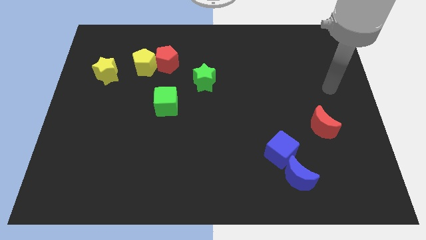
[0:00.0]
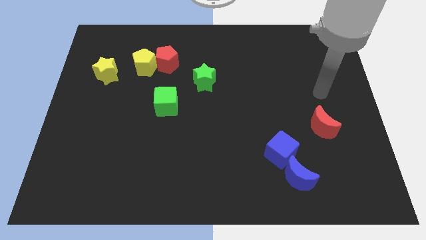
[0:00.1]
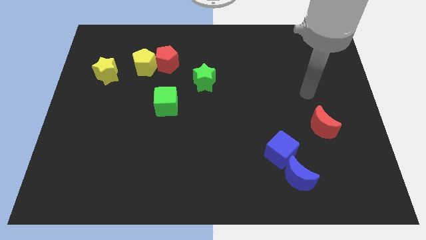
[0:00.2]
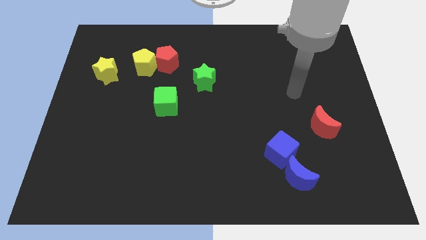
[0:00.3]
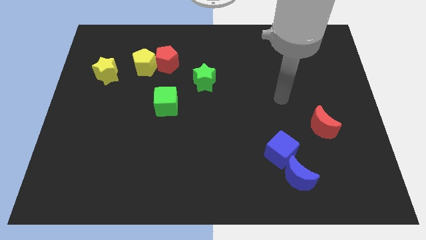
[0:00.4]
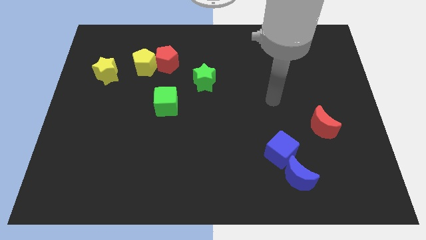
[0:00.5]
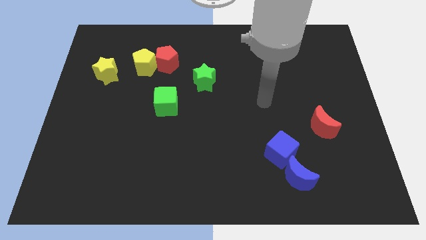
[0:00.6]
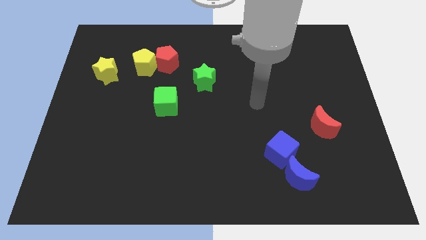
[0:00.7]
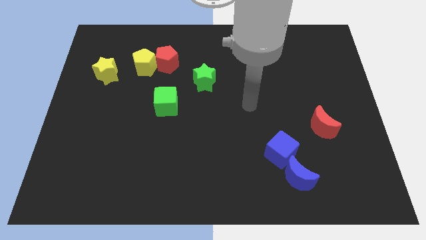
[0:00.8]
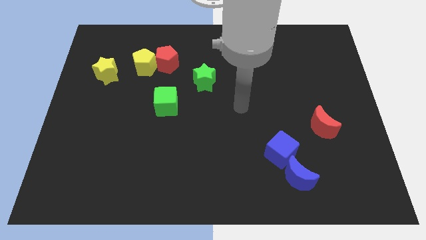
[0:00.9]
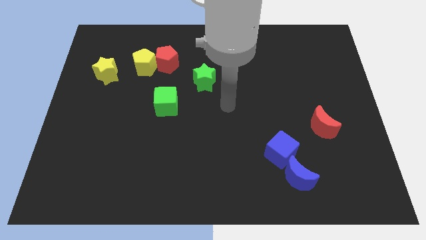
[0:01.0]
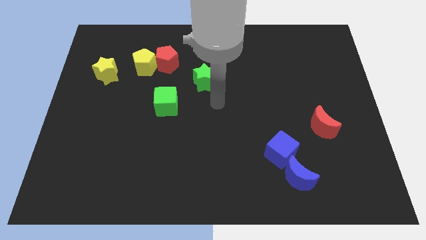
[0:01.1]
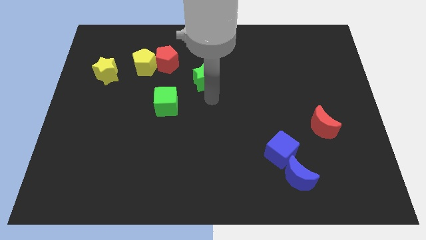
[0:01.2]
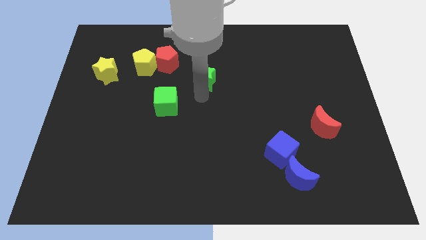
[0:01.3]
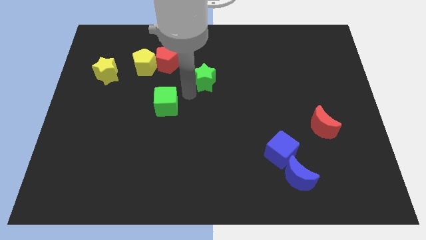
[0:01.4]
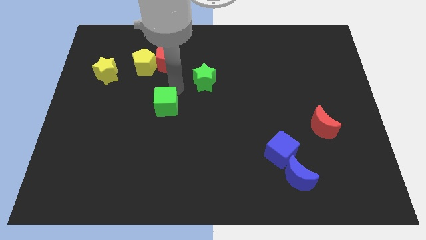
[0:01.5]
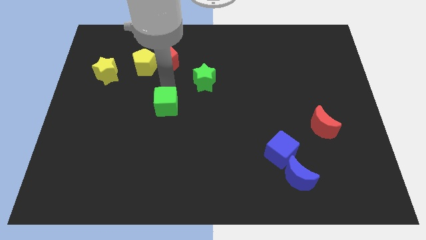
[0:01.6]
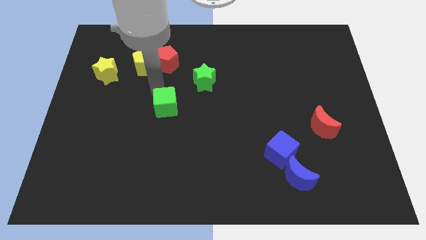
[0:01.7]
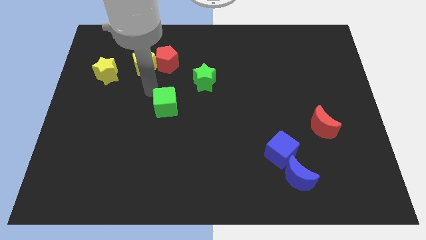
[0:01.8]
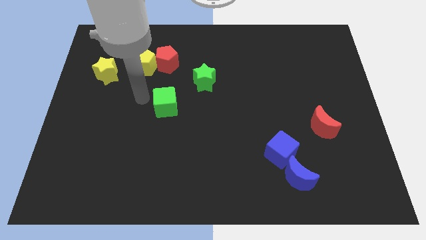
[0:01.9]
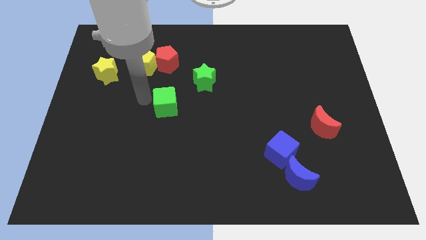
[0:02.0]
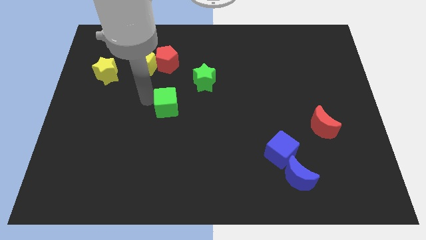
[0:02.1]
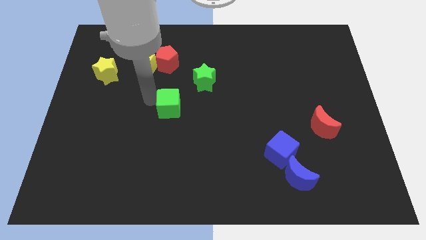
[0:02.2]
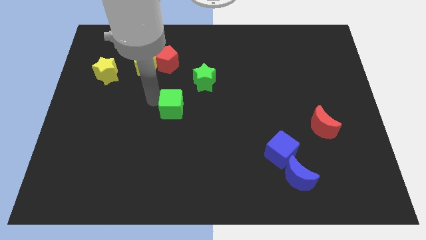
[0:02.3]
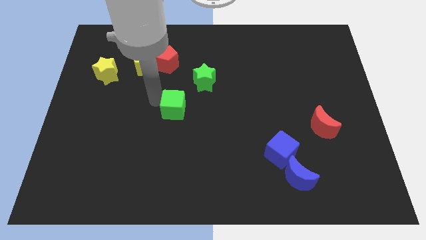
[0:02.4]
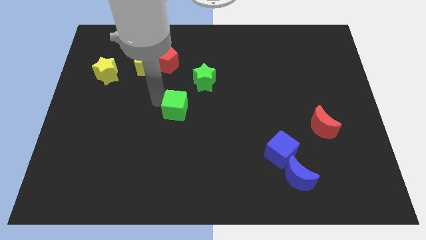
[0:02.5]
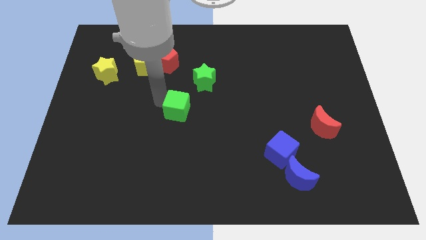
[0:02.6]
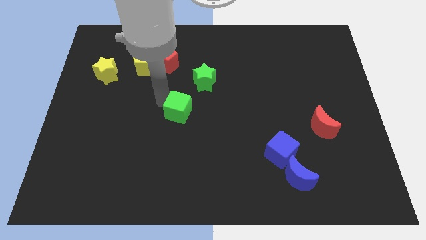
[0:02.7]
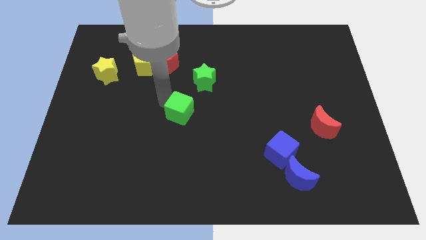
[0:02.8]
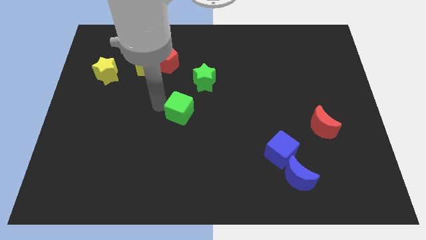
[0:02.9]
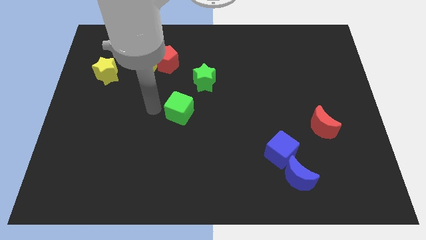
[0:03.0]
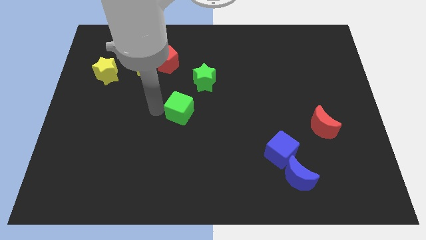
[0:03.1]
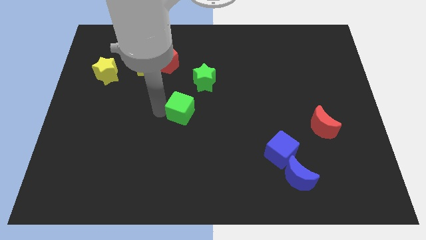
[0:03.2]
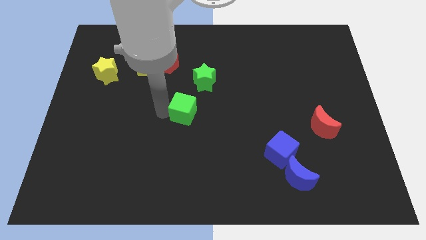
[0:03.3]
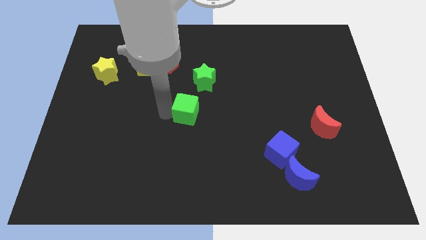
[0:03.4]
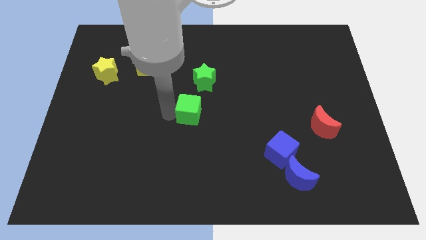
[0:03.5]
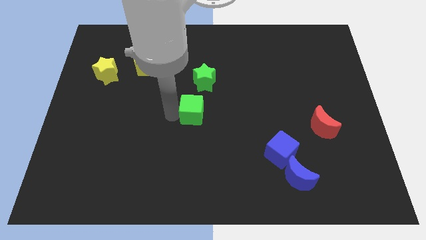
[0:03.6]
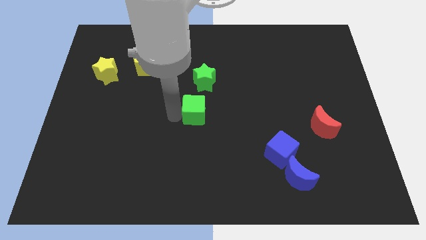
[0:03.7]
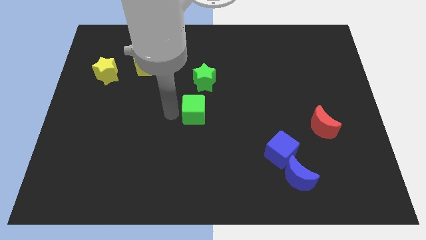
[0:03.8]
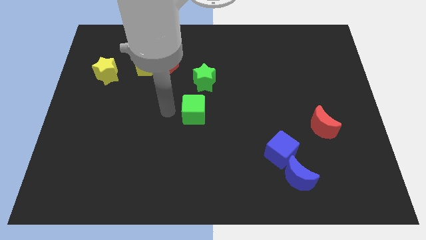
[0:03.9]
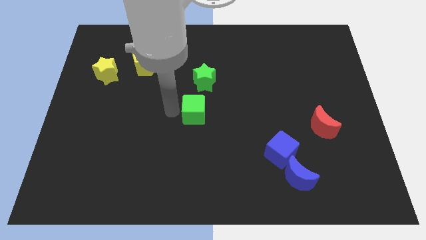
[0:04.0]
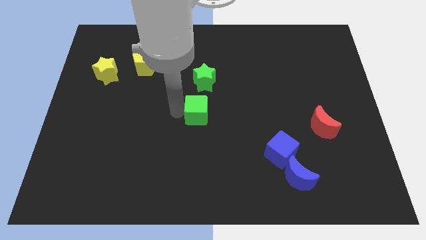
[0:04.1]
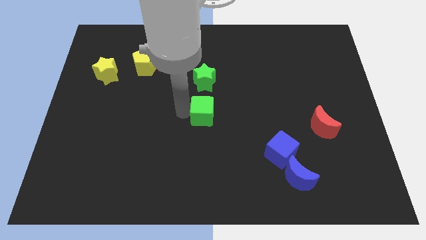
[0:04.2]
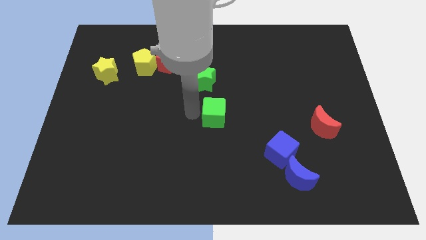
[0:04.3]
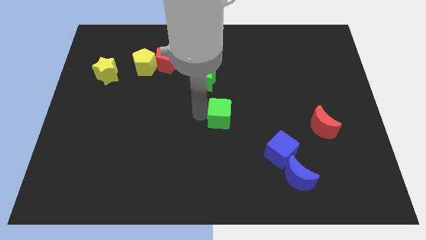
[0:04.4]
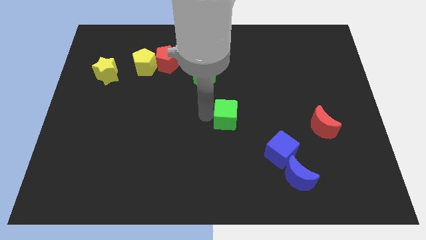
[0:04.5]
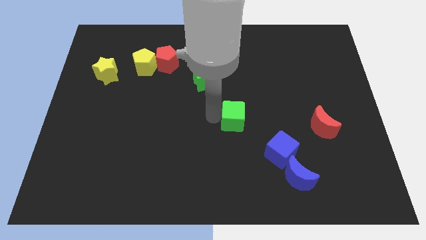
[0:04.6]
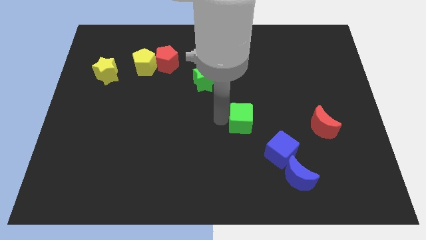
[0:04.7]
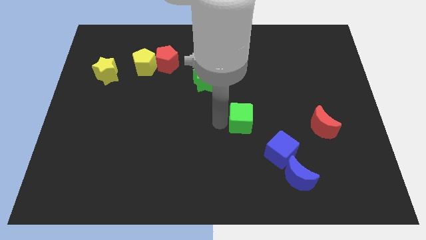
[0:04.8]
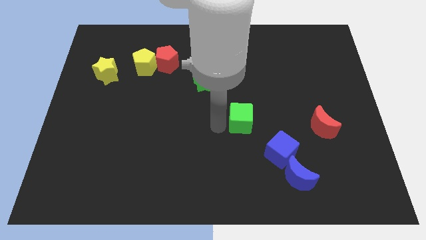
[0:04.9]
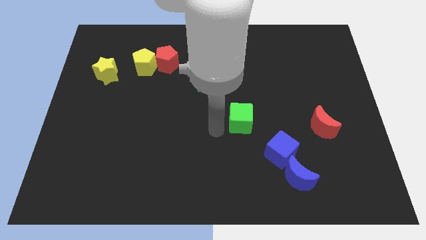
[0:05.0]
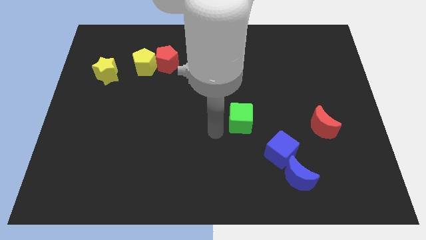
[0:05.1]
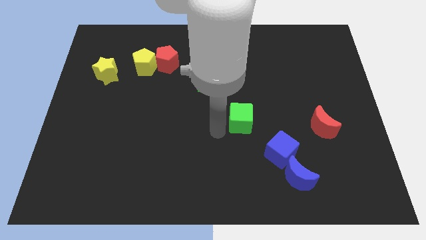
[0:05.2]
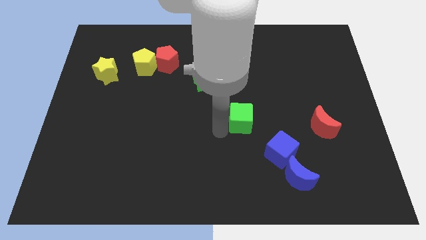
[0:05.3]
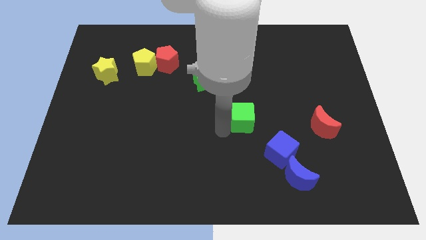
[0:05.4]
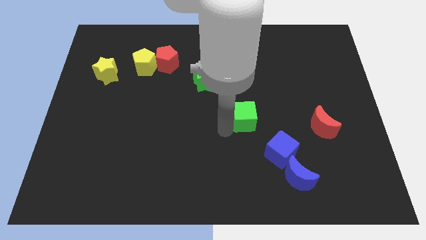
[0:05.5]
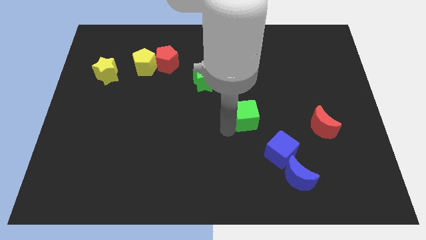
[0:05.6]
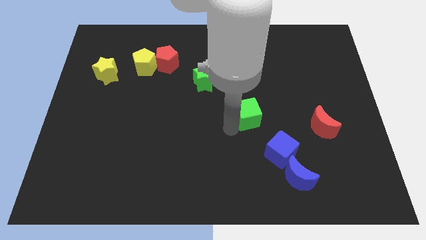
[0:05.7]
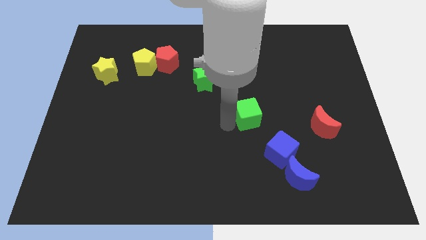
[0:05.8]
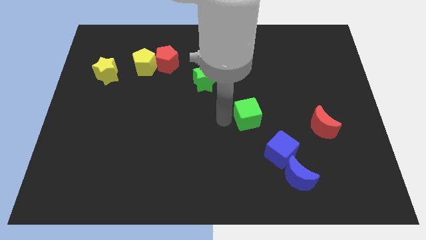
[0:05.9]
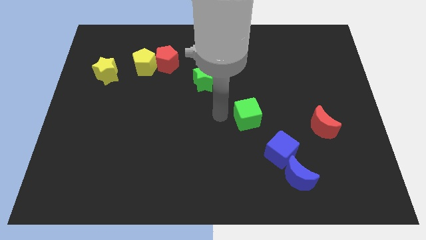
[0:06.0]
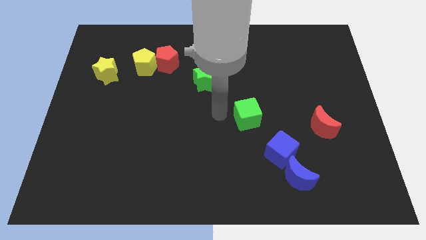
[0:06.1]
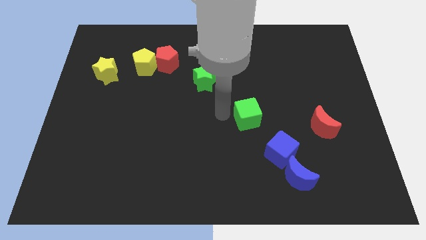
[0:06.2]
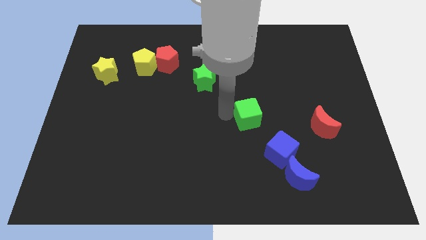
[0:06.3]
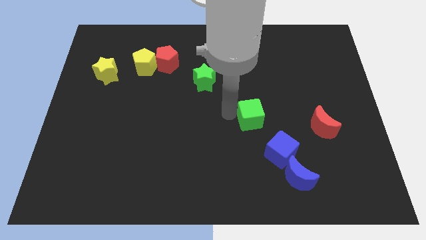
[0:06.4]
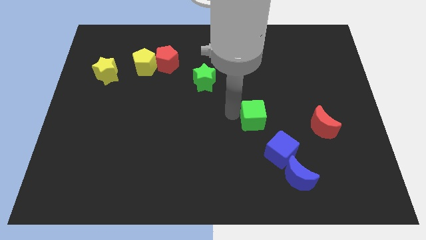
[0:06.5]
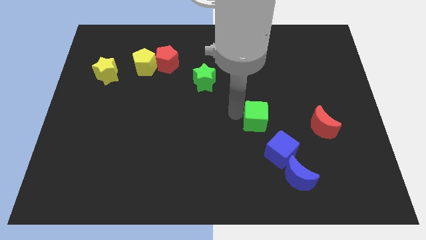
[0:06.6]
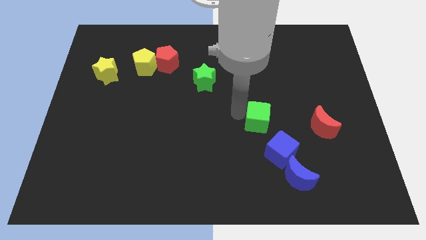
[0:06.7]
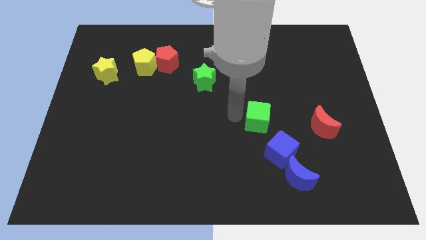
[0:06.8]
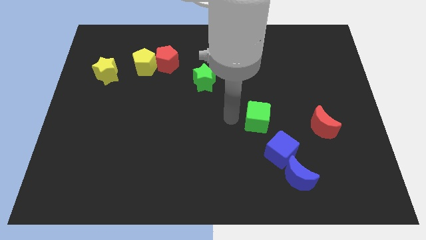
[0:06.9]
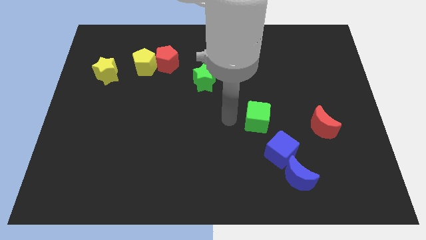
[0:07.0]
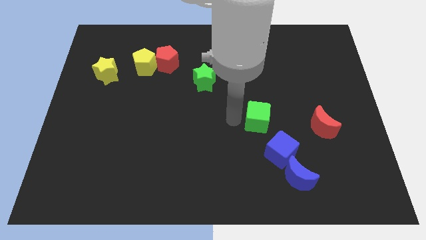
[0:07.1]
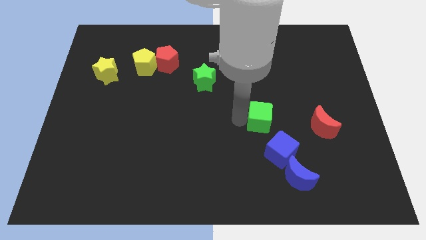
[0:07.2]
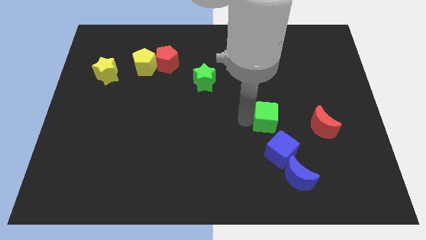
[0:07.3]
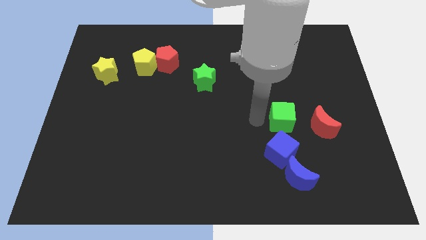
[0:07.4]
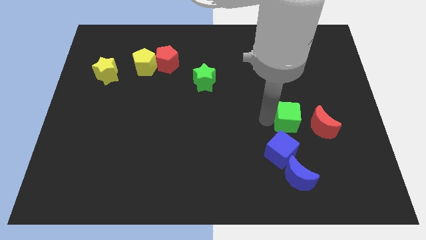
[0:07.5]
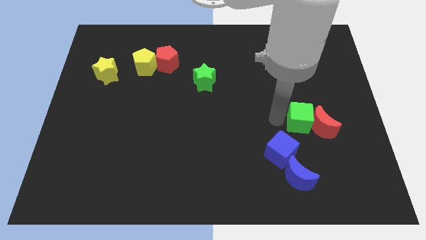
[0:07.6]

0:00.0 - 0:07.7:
push the green cube towards the red moon
